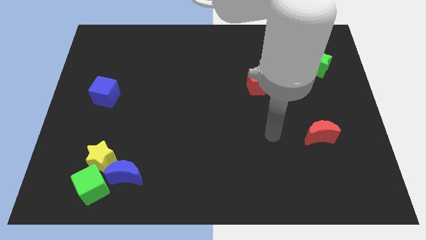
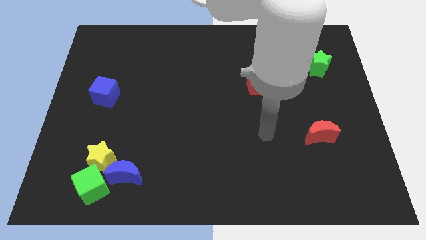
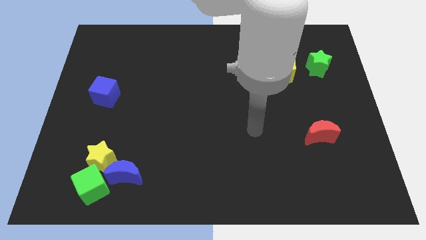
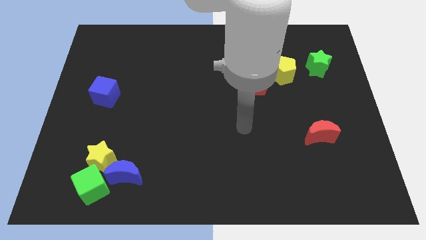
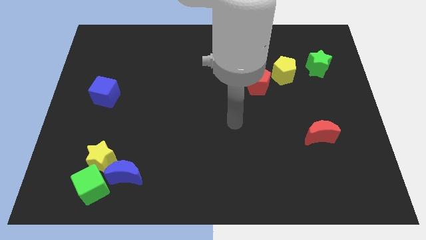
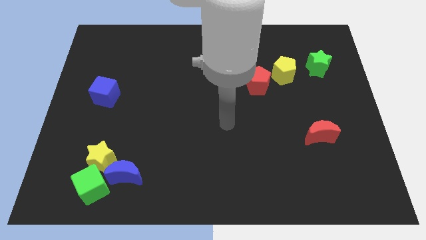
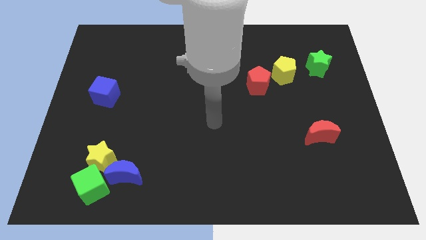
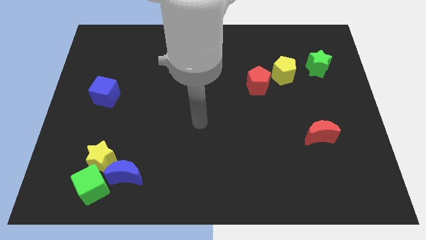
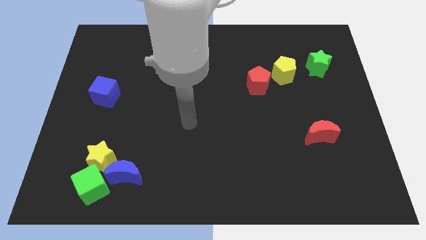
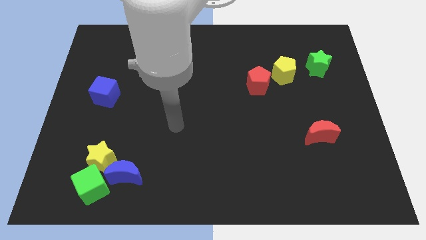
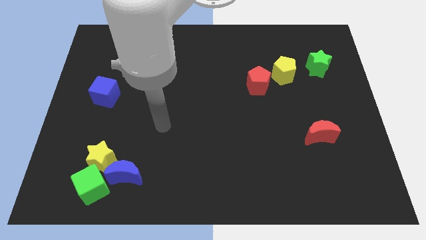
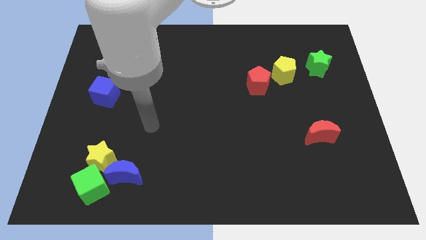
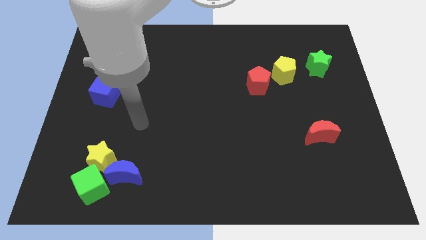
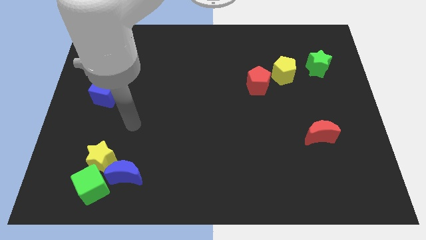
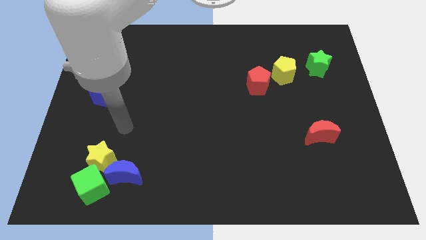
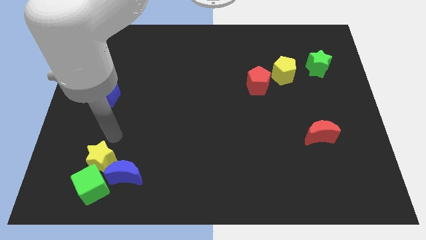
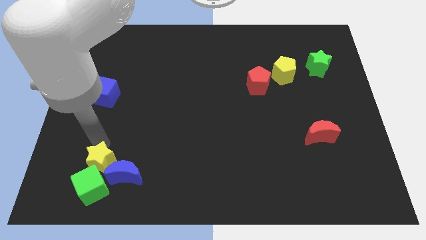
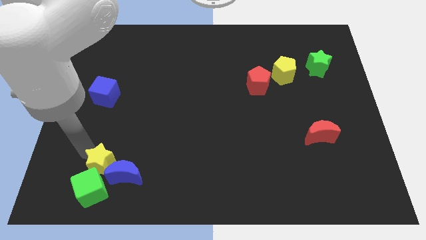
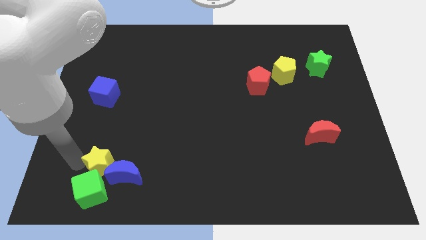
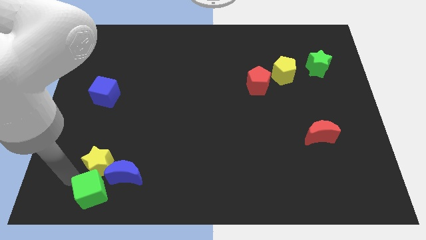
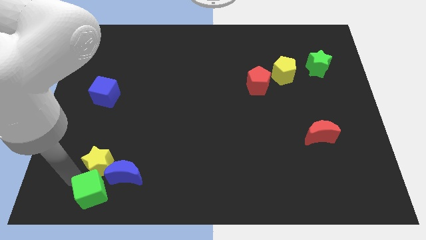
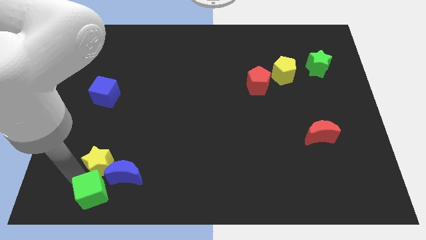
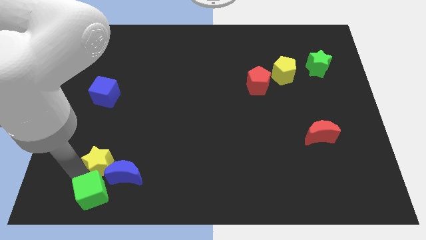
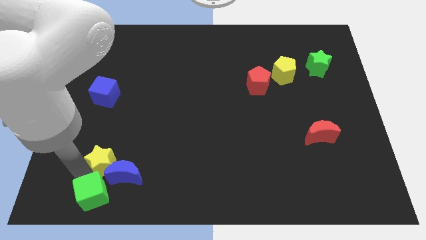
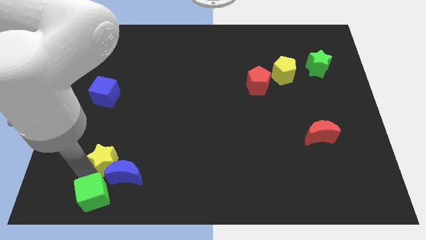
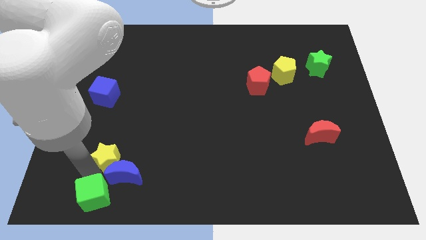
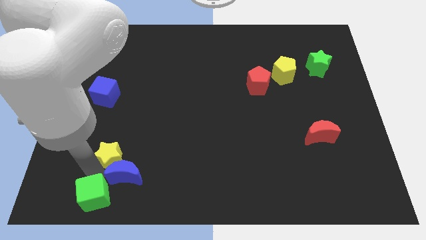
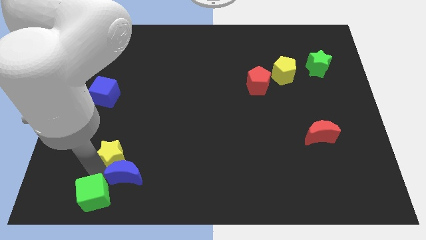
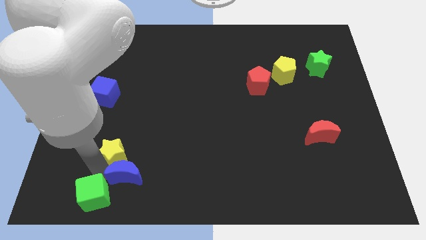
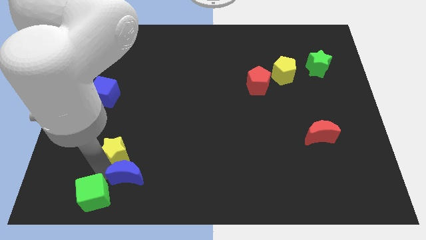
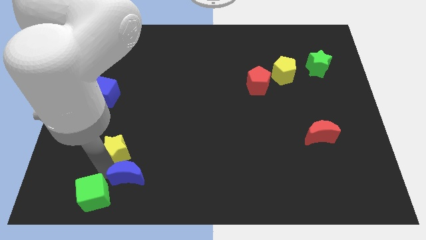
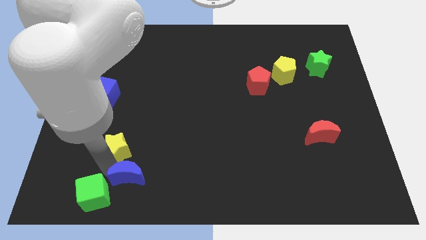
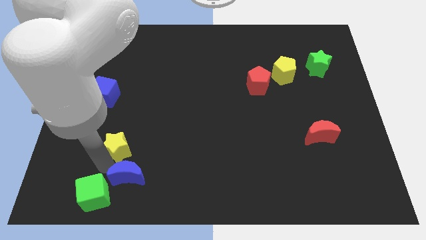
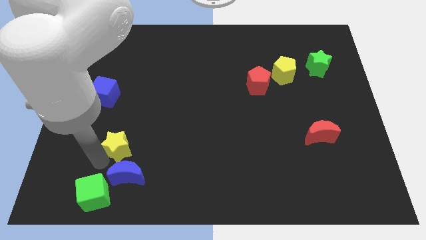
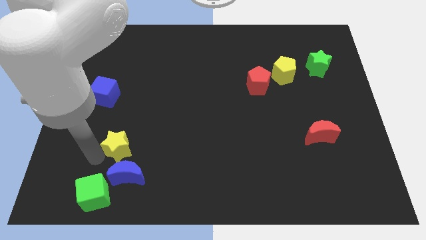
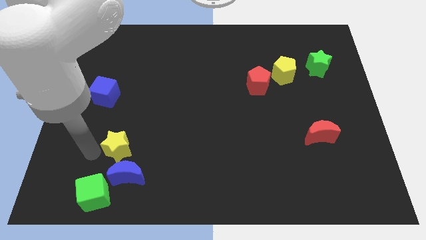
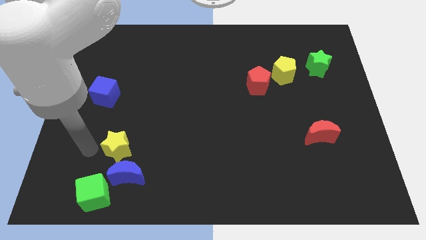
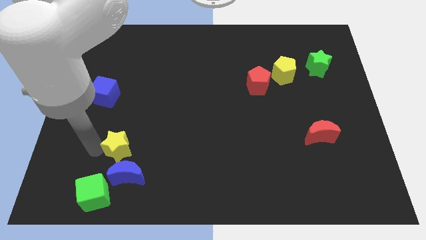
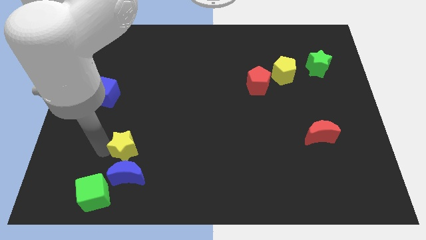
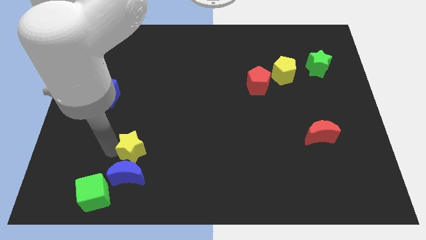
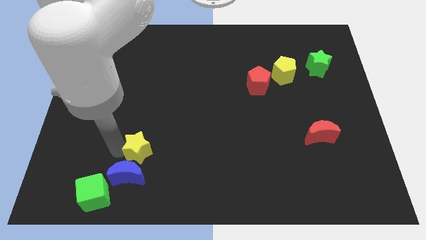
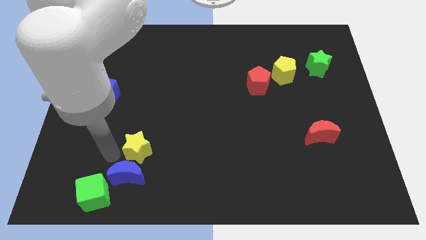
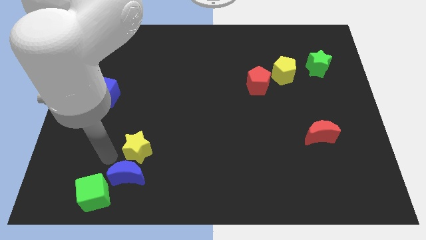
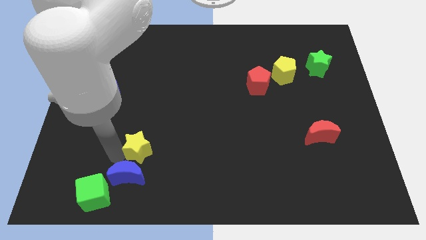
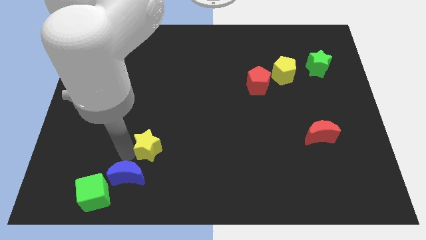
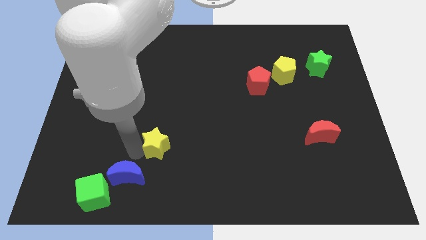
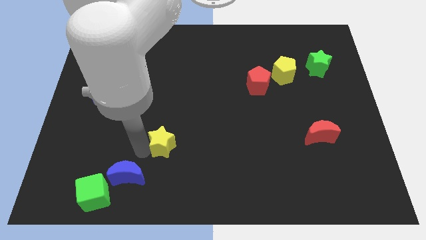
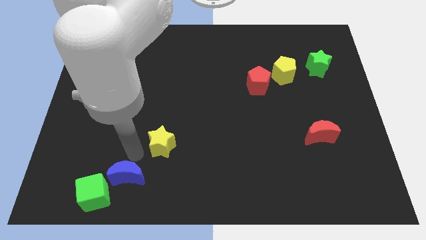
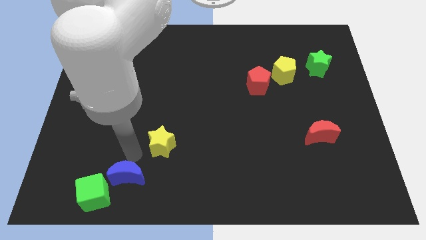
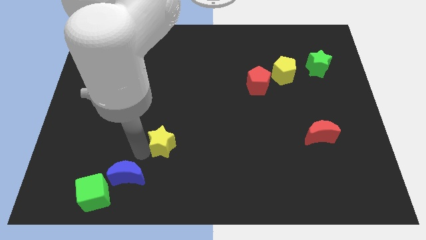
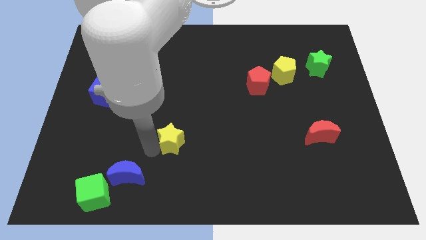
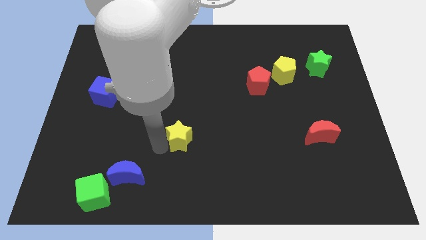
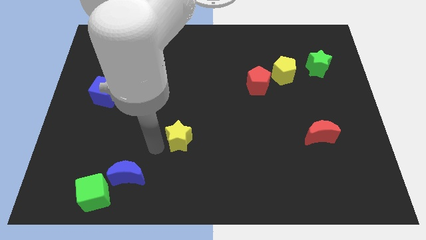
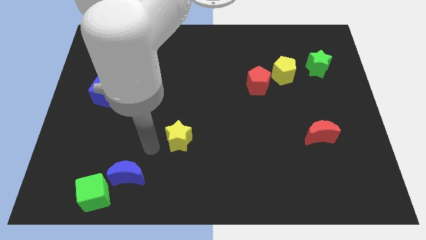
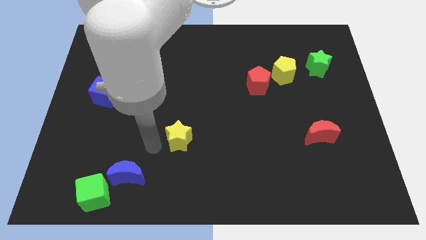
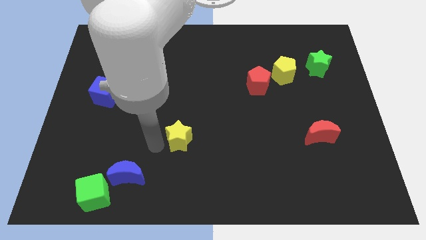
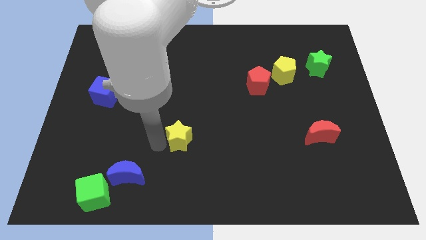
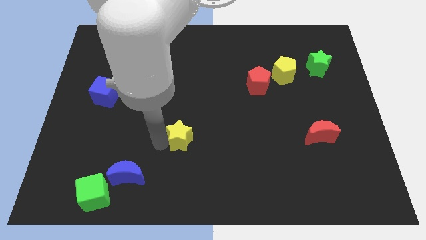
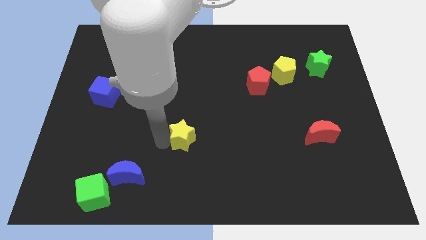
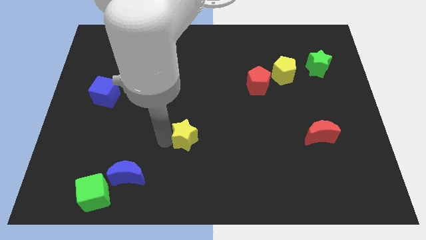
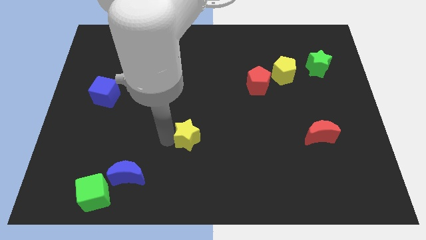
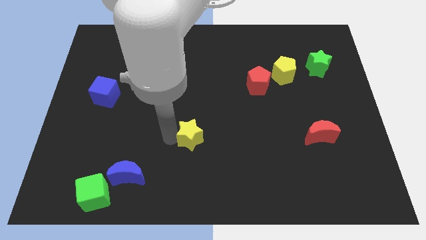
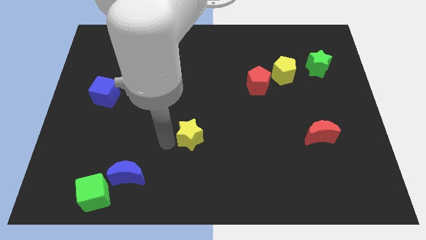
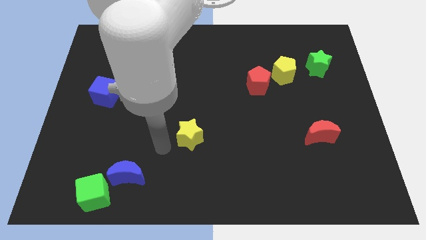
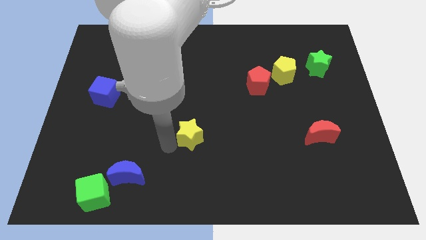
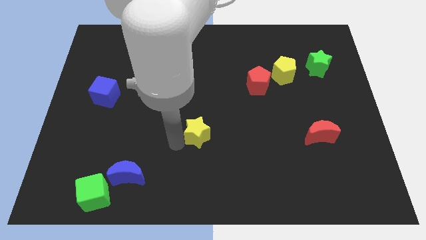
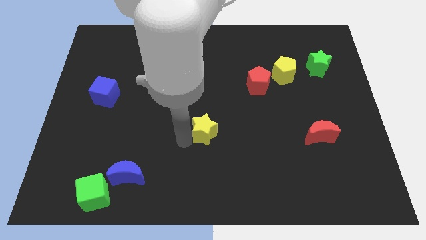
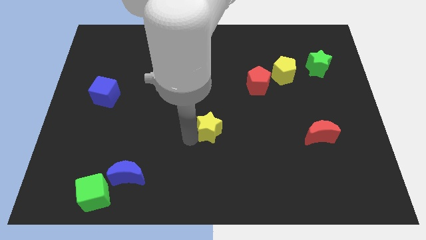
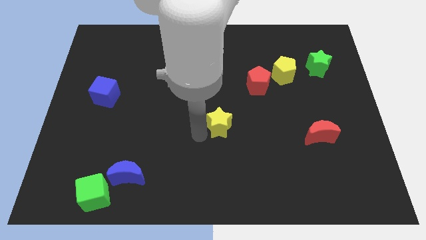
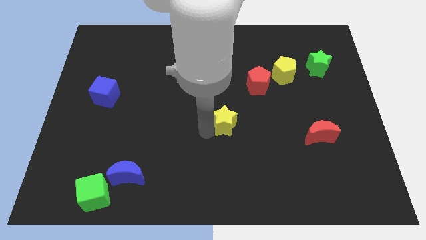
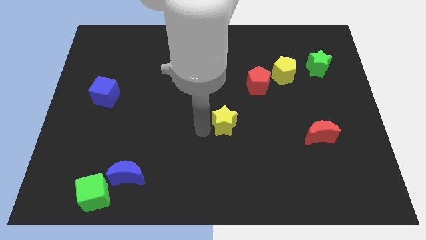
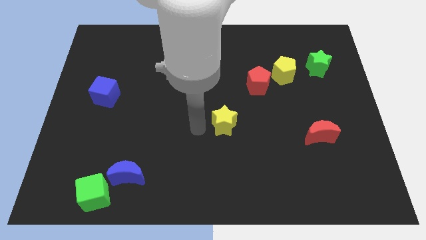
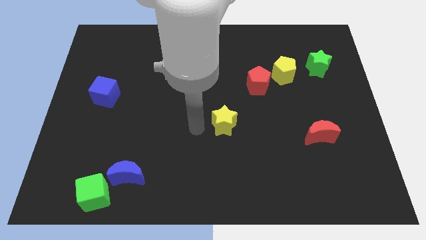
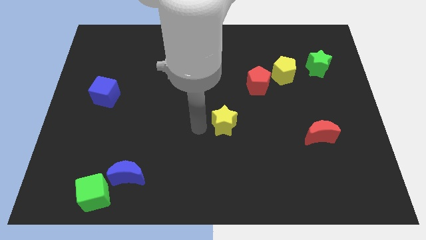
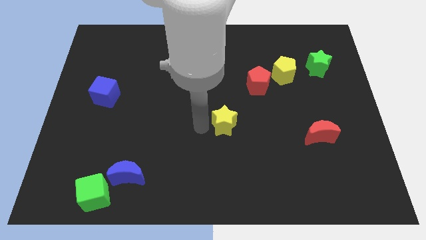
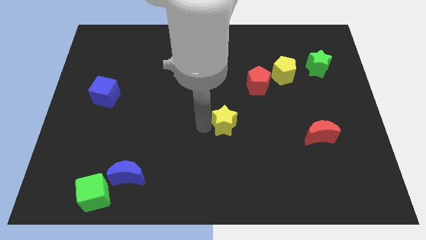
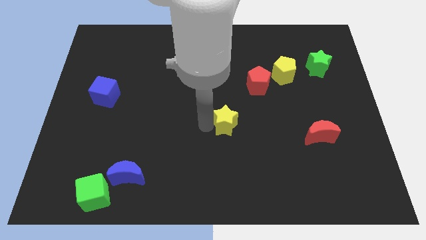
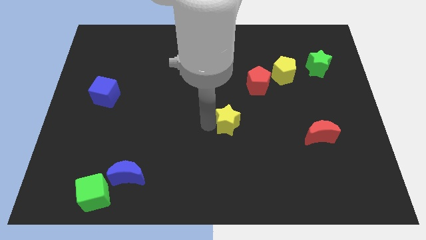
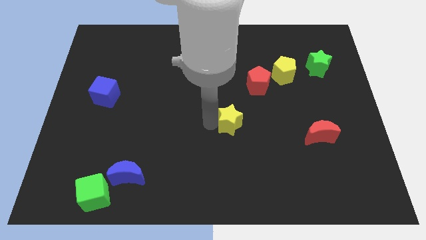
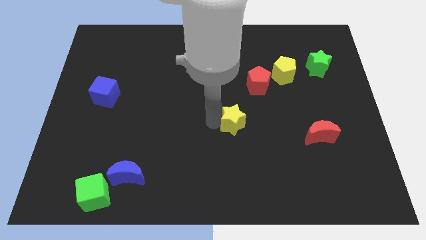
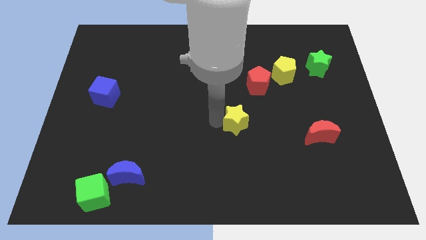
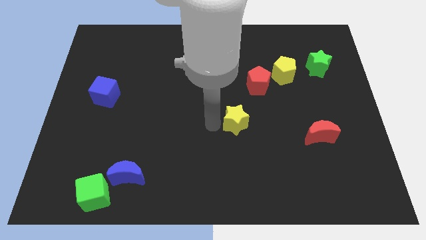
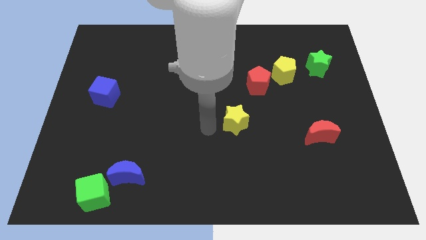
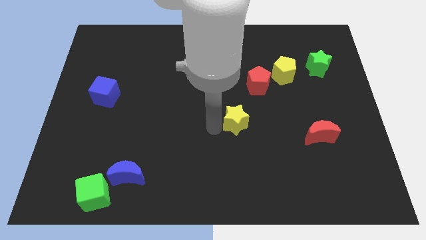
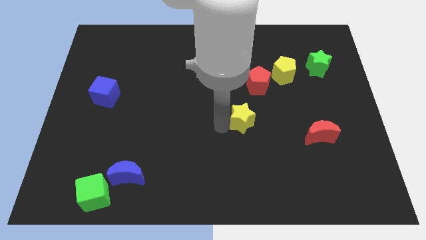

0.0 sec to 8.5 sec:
put the yellow star to the bottom of the red pentagon
